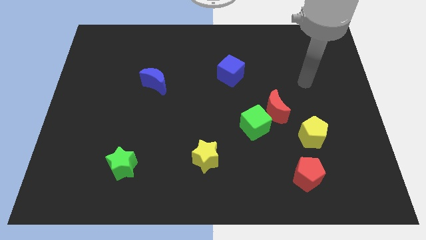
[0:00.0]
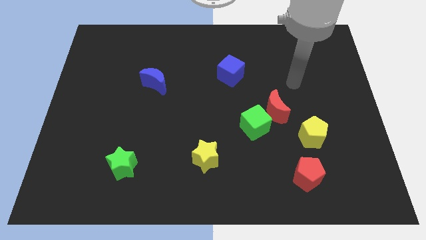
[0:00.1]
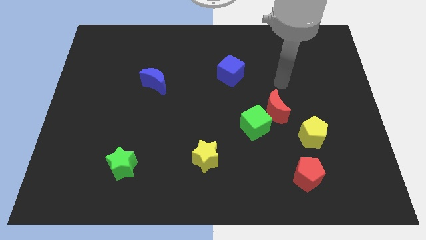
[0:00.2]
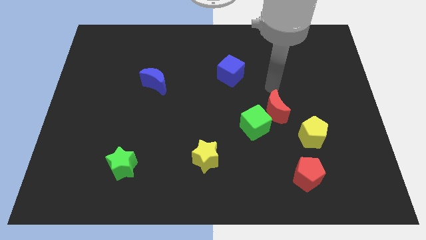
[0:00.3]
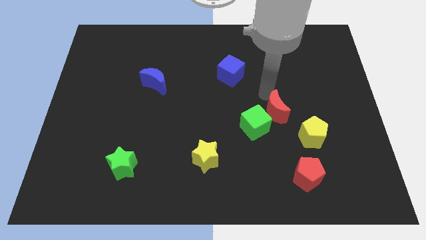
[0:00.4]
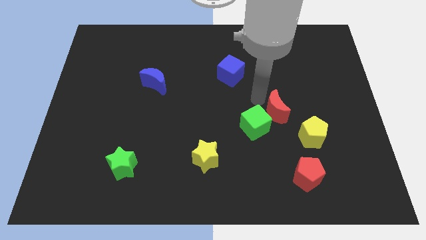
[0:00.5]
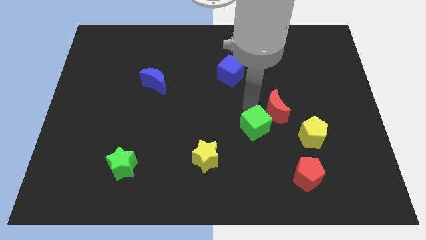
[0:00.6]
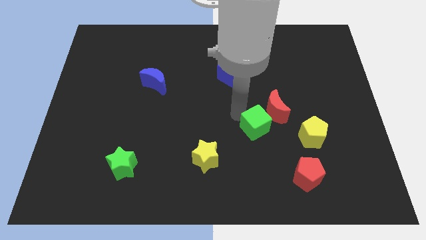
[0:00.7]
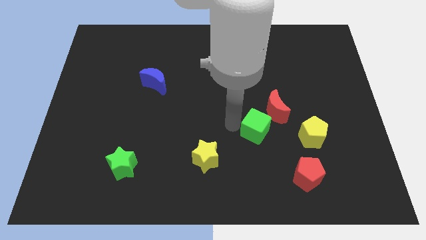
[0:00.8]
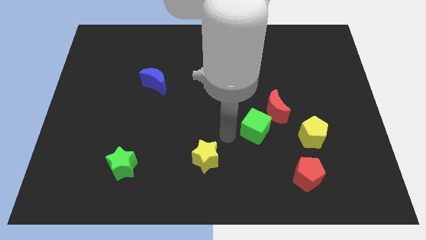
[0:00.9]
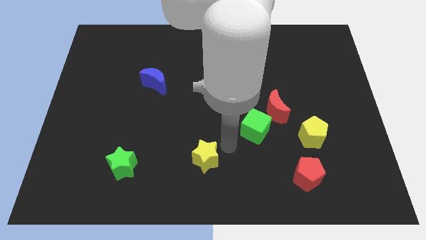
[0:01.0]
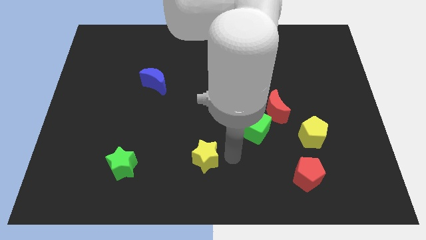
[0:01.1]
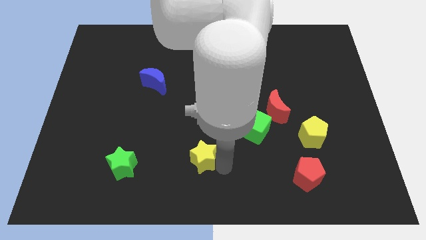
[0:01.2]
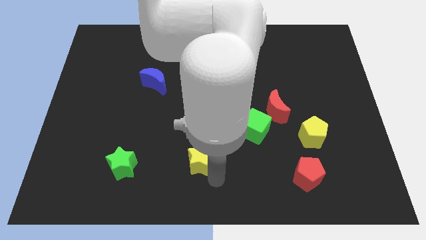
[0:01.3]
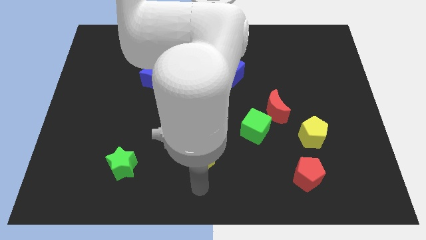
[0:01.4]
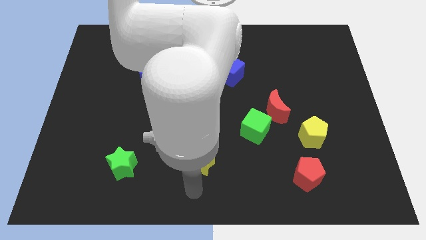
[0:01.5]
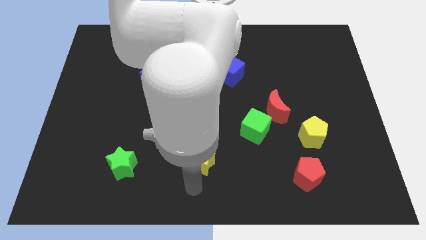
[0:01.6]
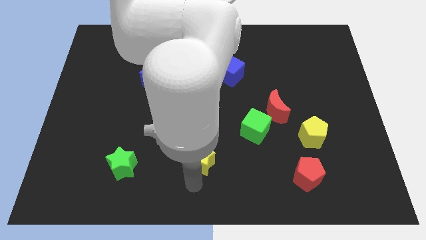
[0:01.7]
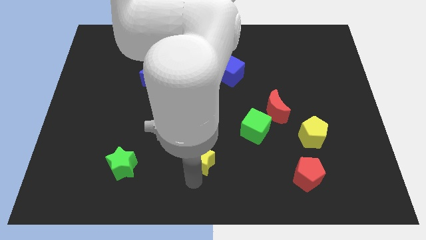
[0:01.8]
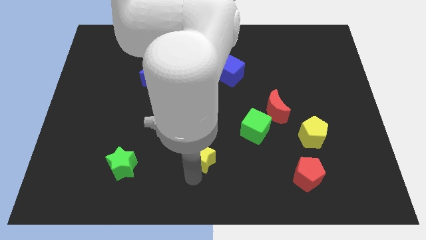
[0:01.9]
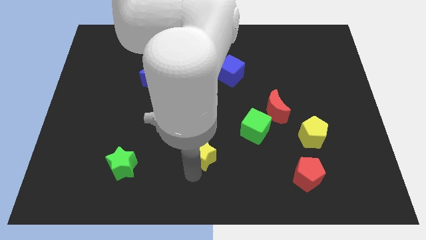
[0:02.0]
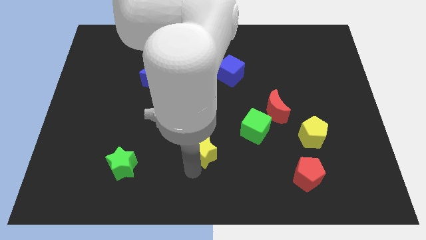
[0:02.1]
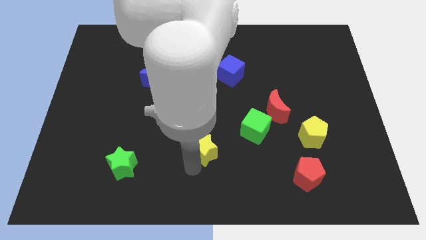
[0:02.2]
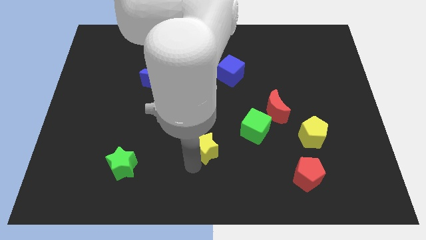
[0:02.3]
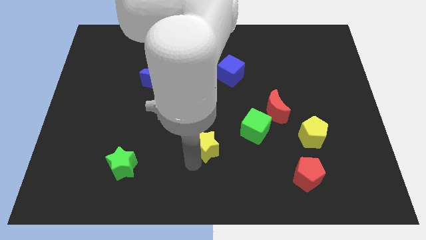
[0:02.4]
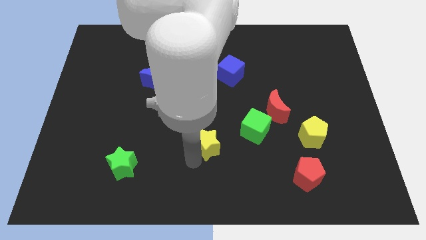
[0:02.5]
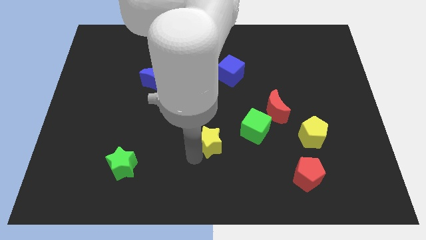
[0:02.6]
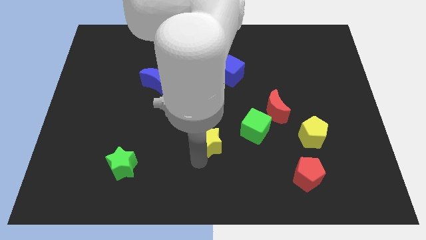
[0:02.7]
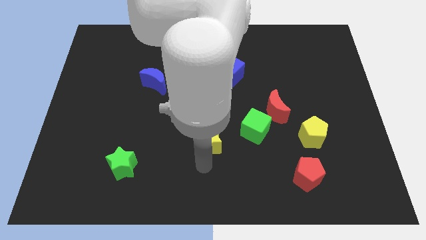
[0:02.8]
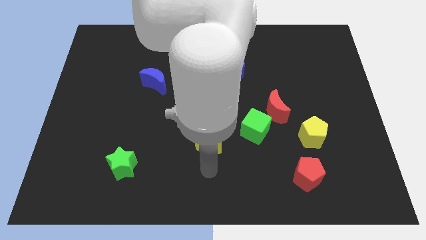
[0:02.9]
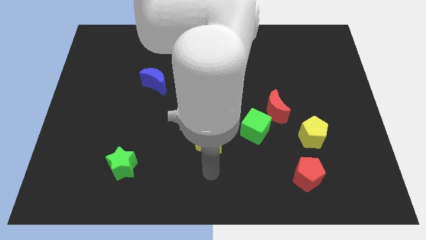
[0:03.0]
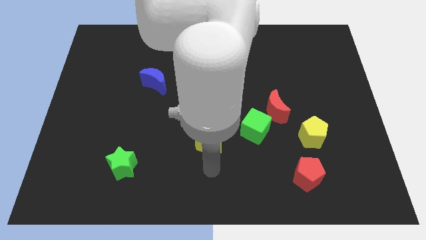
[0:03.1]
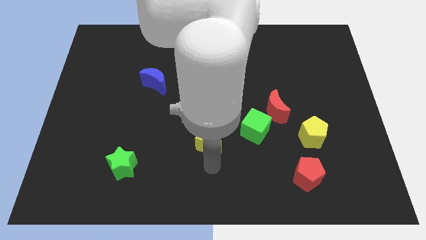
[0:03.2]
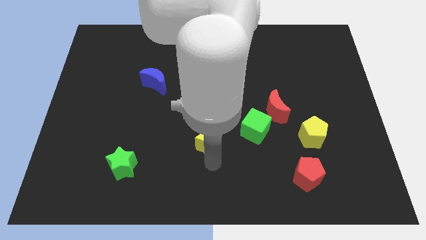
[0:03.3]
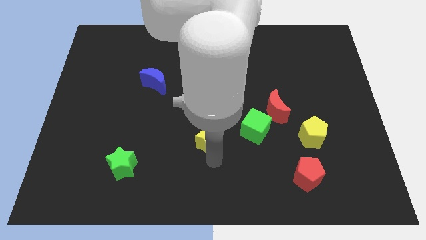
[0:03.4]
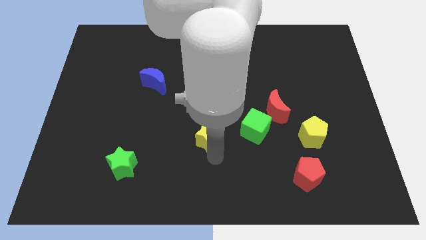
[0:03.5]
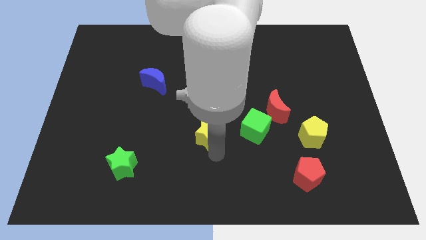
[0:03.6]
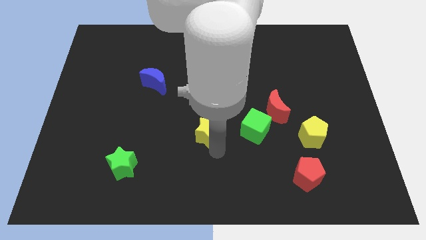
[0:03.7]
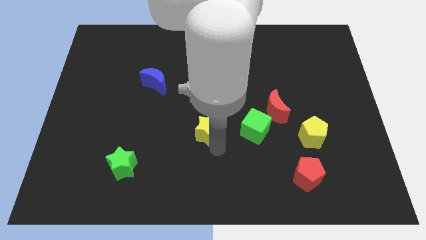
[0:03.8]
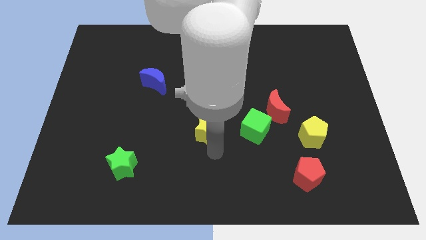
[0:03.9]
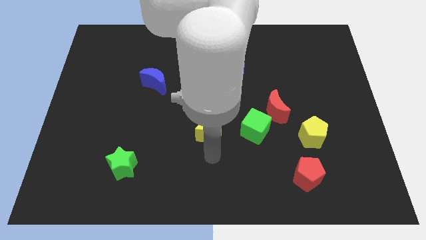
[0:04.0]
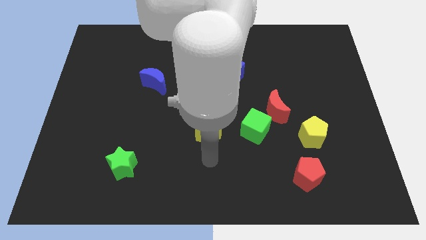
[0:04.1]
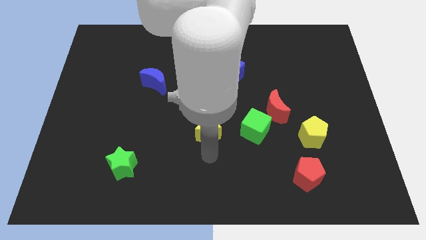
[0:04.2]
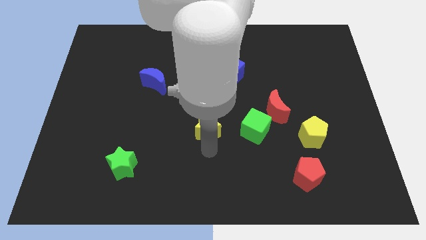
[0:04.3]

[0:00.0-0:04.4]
push the yellow star upwards a little bit

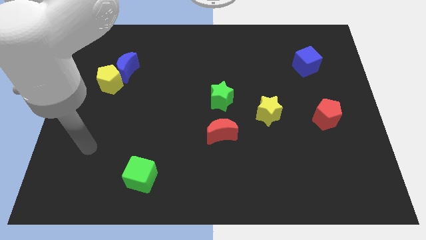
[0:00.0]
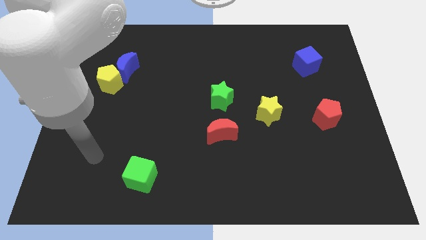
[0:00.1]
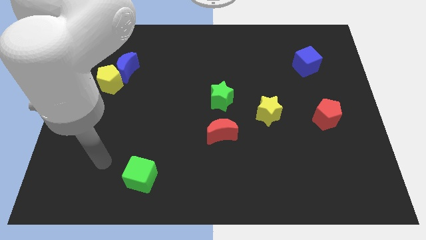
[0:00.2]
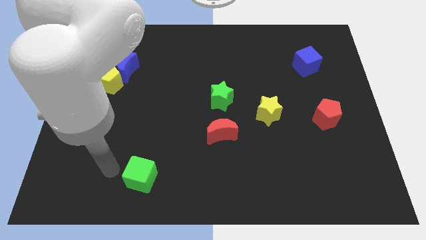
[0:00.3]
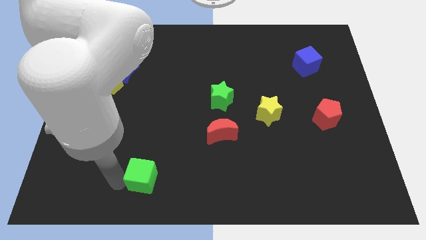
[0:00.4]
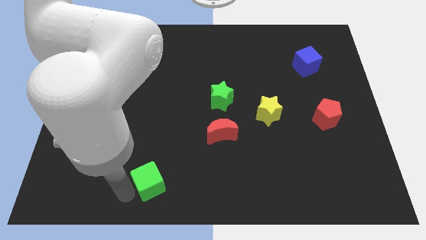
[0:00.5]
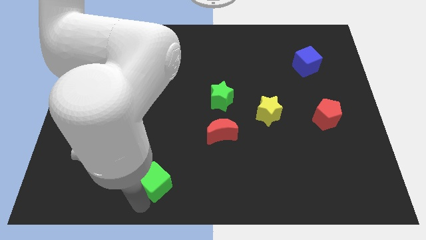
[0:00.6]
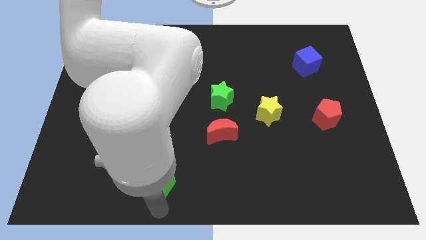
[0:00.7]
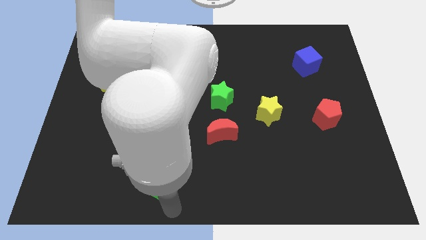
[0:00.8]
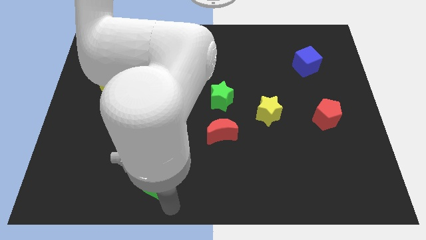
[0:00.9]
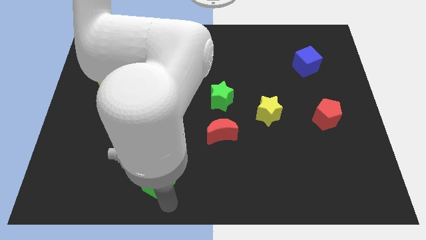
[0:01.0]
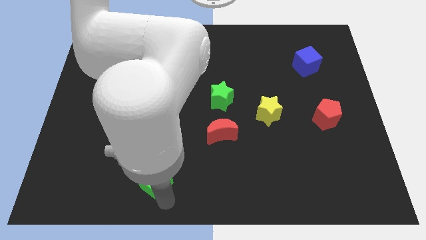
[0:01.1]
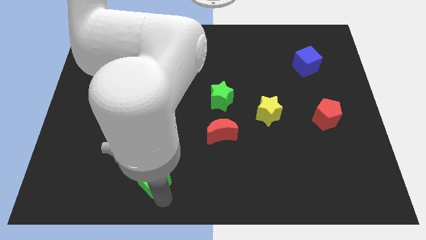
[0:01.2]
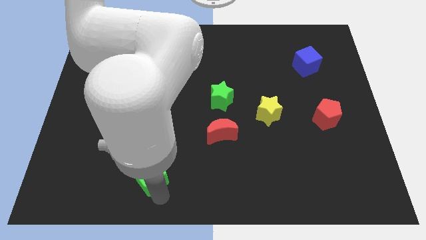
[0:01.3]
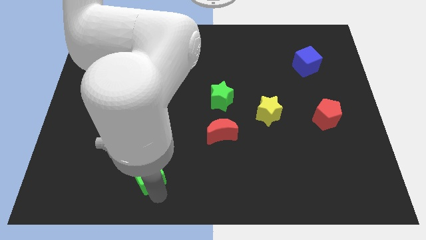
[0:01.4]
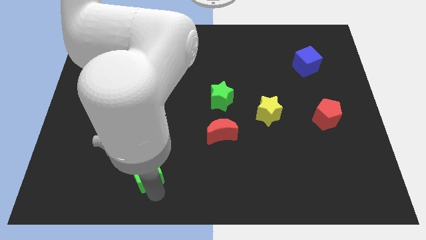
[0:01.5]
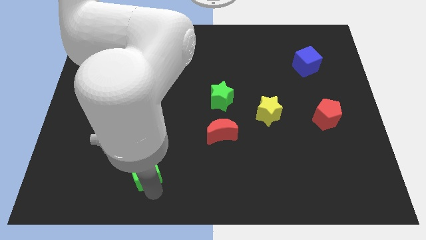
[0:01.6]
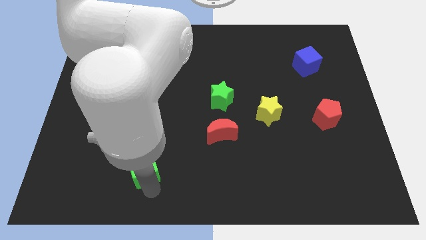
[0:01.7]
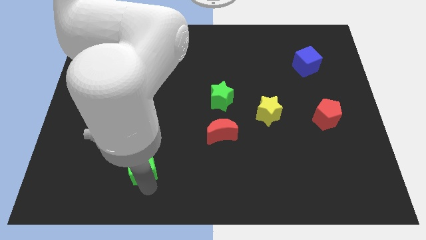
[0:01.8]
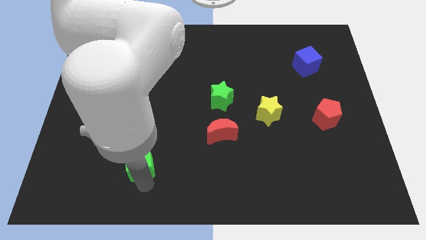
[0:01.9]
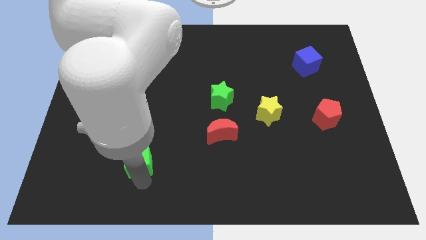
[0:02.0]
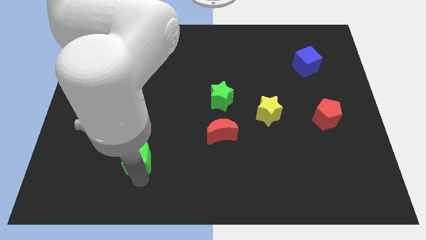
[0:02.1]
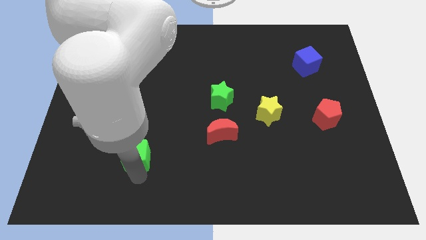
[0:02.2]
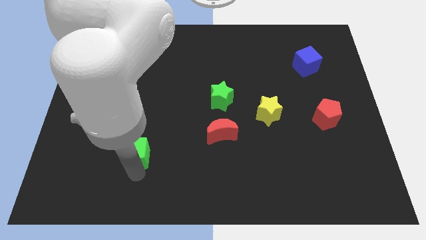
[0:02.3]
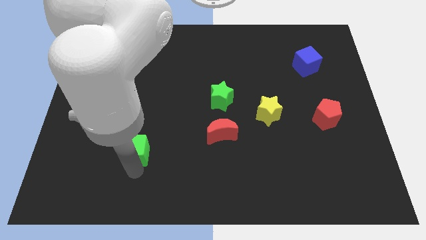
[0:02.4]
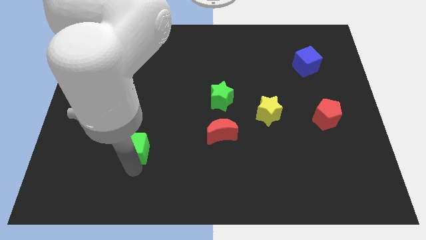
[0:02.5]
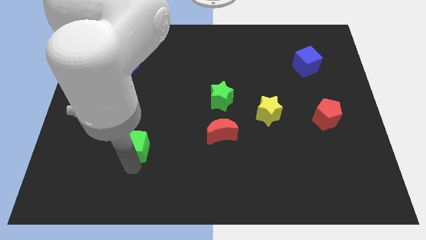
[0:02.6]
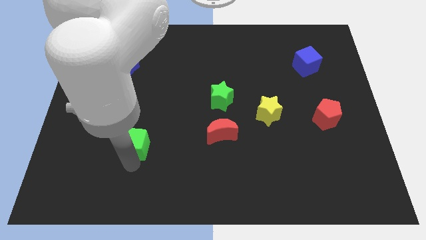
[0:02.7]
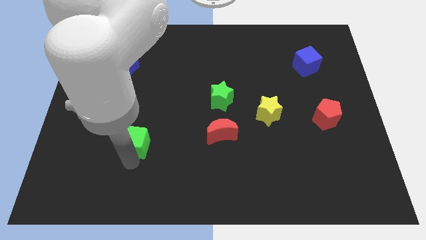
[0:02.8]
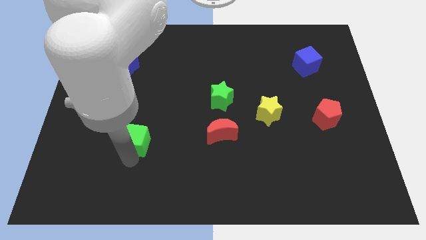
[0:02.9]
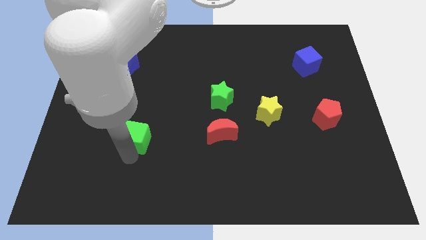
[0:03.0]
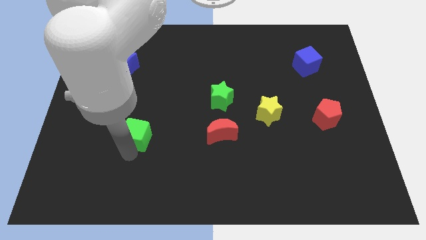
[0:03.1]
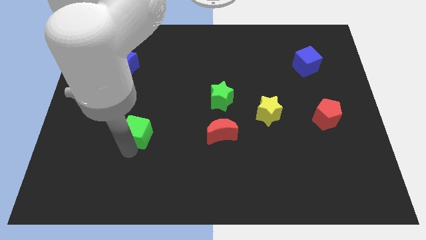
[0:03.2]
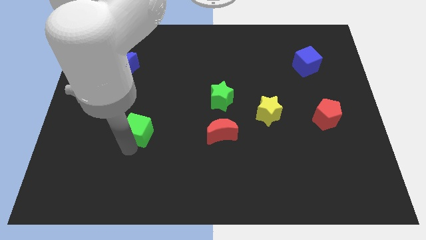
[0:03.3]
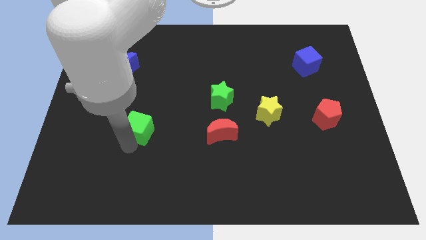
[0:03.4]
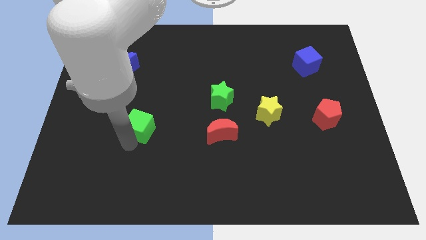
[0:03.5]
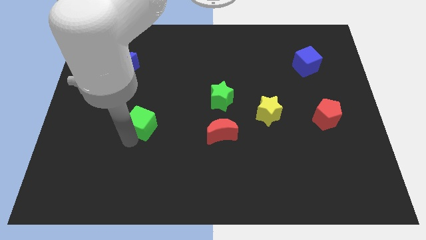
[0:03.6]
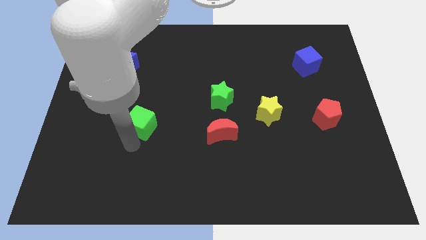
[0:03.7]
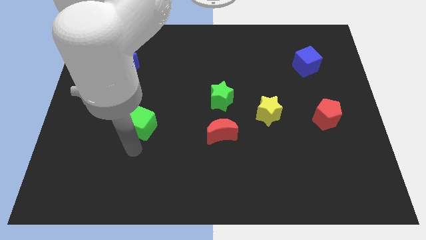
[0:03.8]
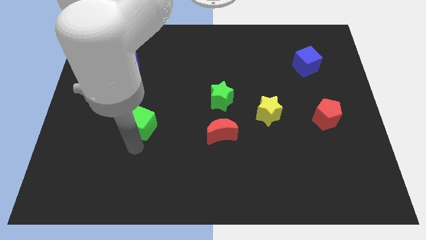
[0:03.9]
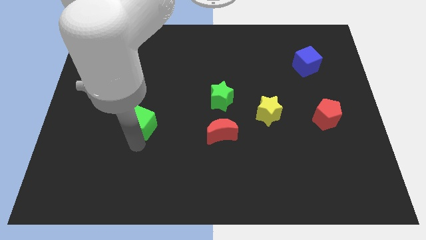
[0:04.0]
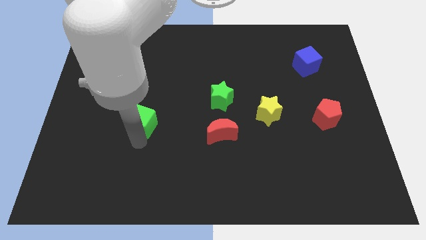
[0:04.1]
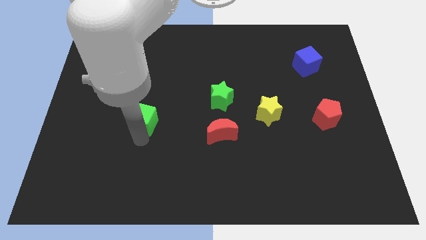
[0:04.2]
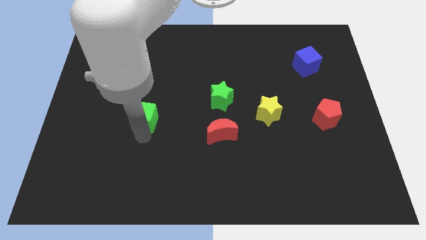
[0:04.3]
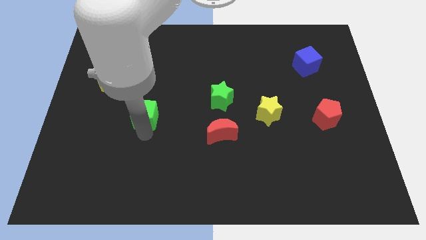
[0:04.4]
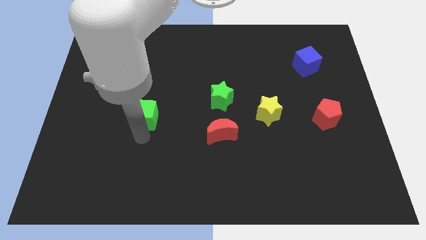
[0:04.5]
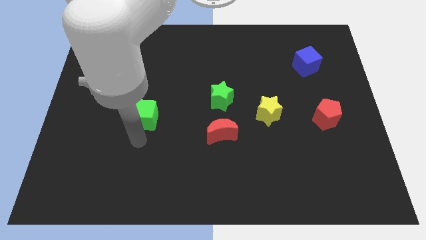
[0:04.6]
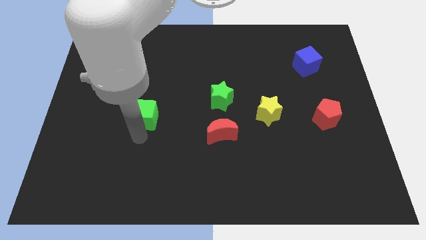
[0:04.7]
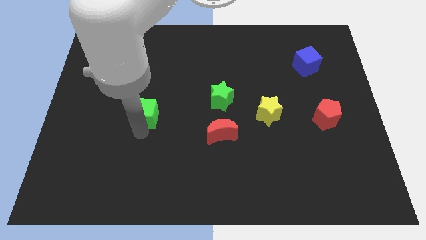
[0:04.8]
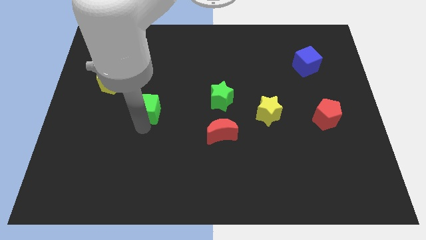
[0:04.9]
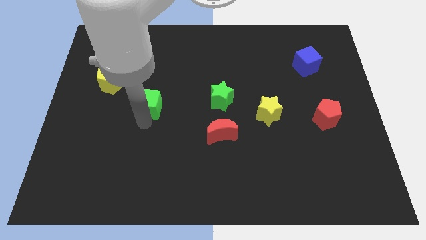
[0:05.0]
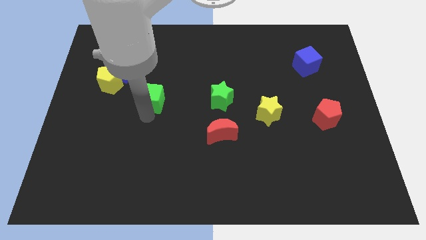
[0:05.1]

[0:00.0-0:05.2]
move the green cube upwards
